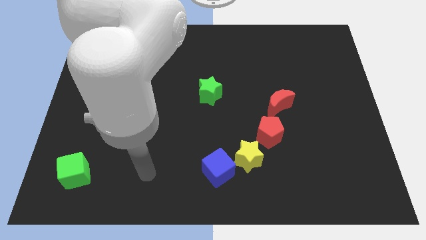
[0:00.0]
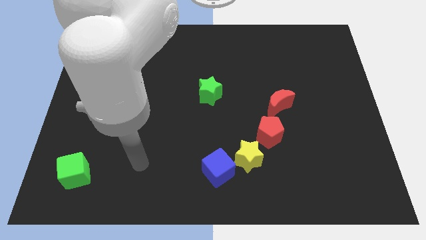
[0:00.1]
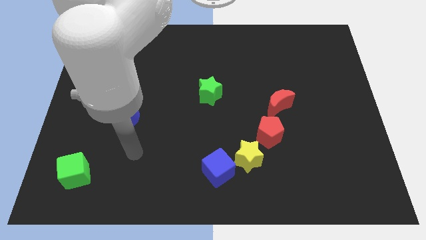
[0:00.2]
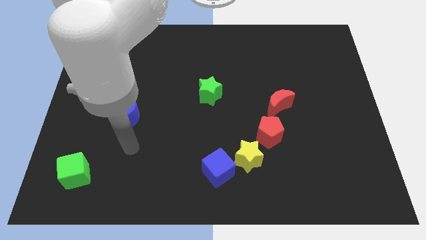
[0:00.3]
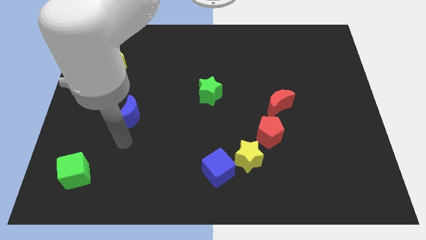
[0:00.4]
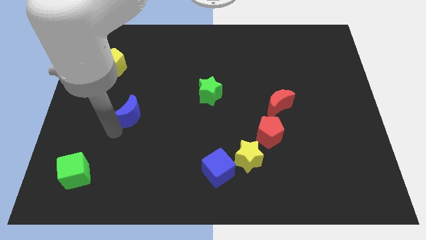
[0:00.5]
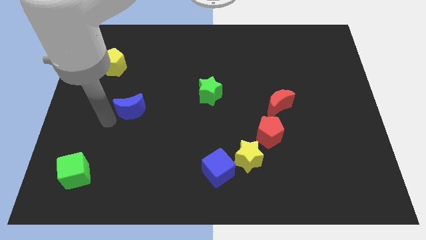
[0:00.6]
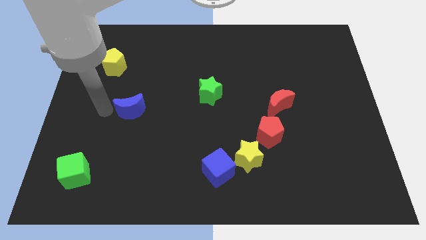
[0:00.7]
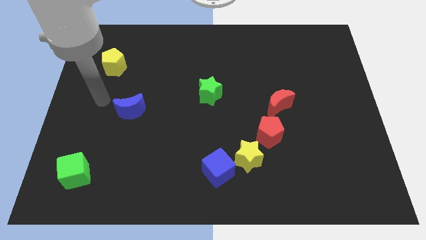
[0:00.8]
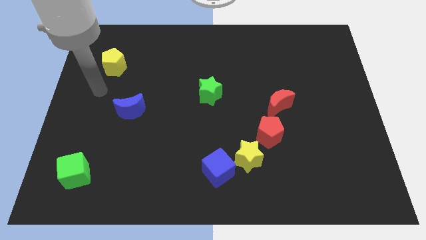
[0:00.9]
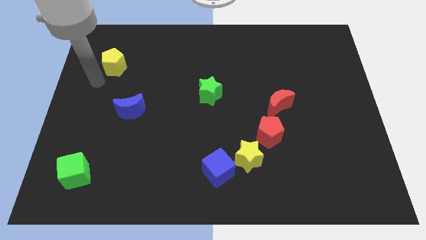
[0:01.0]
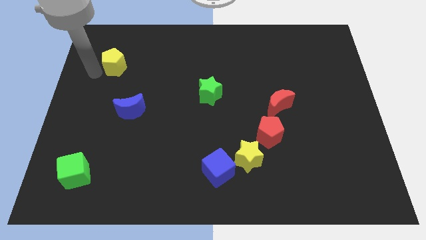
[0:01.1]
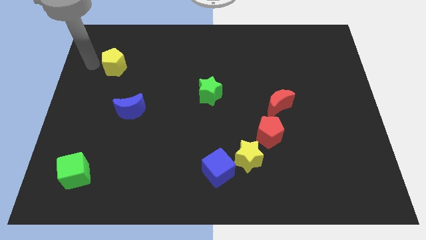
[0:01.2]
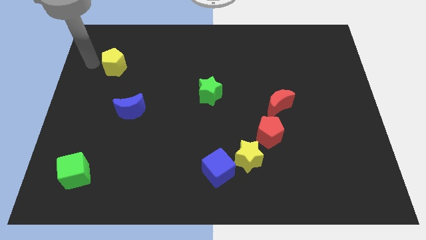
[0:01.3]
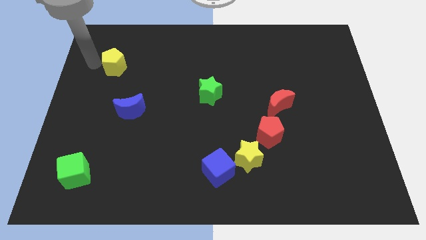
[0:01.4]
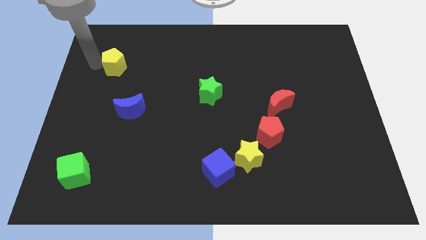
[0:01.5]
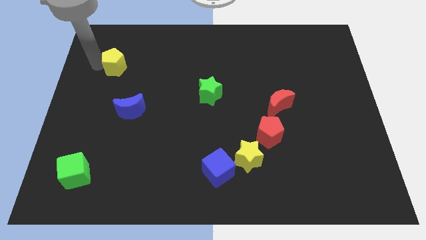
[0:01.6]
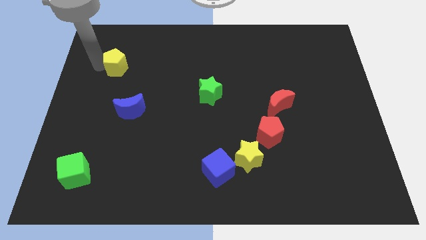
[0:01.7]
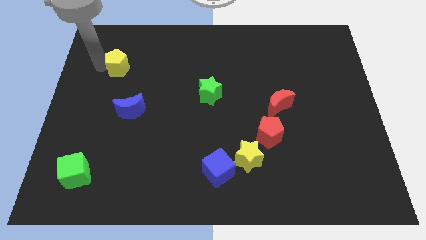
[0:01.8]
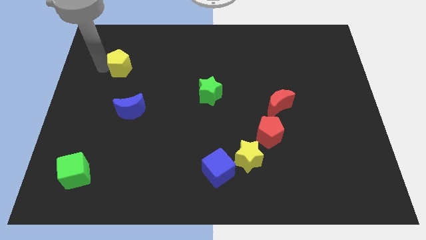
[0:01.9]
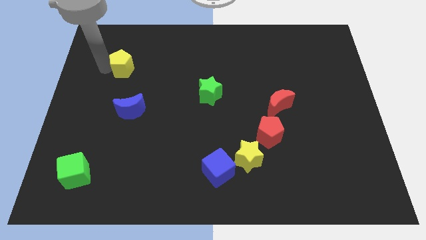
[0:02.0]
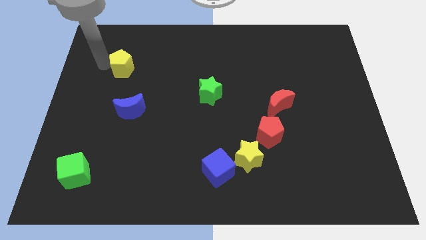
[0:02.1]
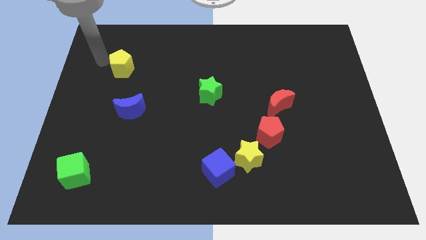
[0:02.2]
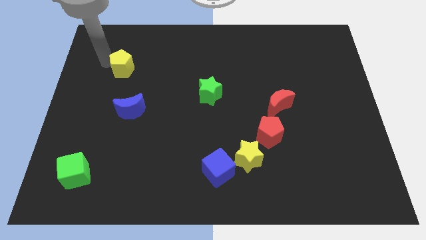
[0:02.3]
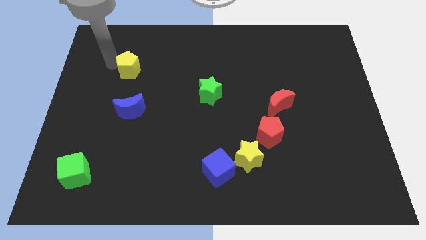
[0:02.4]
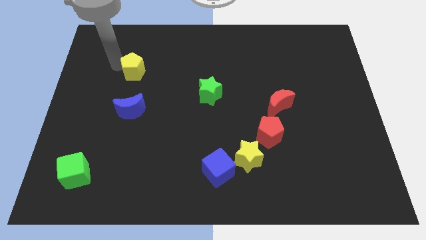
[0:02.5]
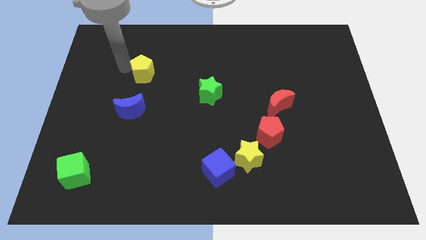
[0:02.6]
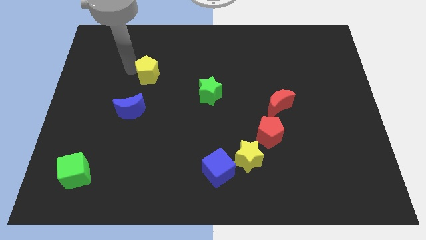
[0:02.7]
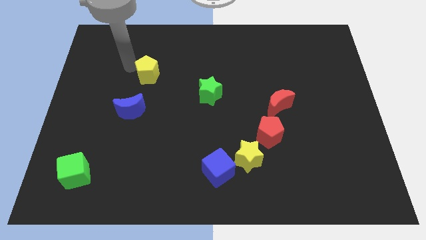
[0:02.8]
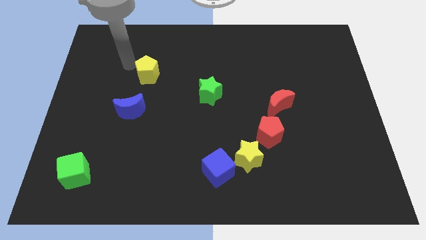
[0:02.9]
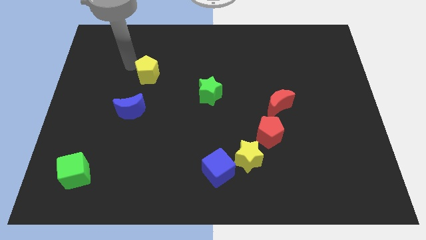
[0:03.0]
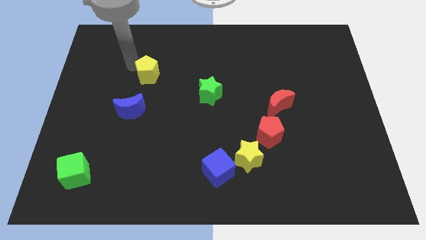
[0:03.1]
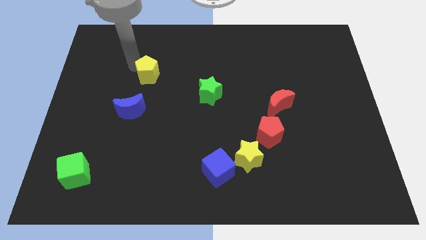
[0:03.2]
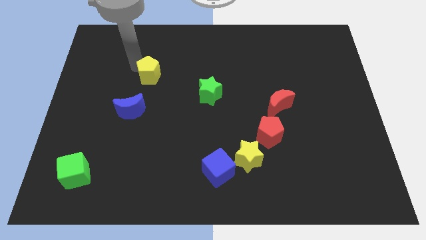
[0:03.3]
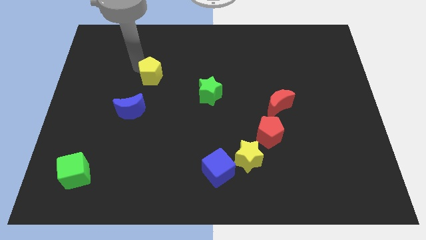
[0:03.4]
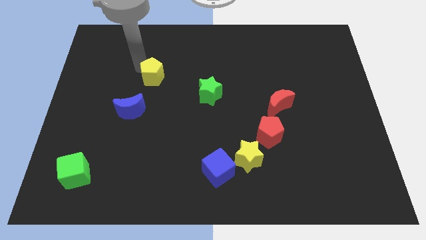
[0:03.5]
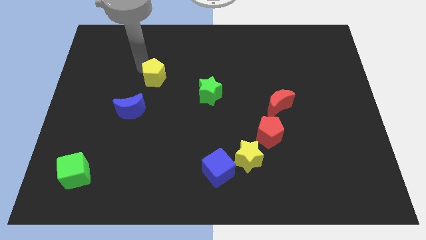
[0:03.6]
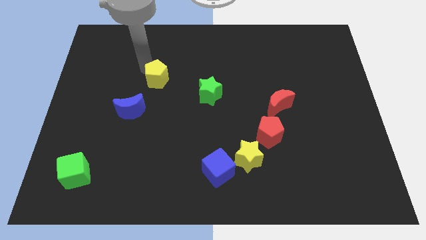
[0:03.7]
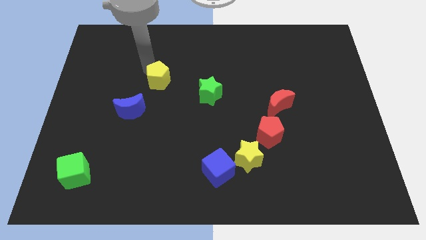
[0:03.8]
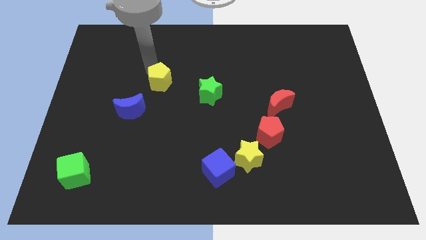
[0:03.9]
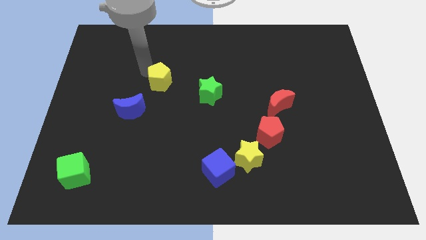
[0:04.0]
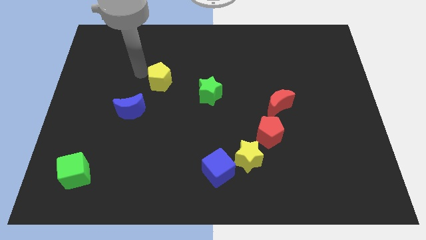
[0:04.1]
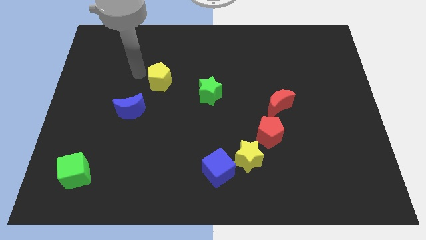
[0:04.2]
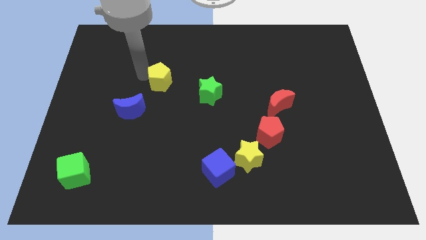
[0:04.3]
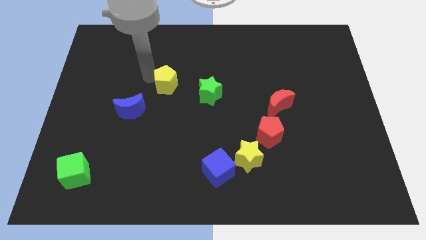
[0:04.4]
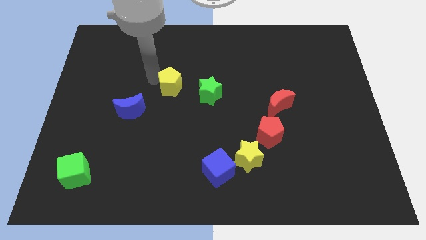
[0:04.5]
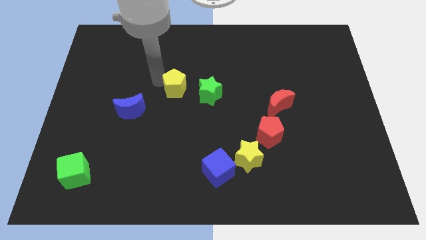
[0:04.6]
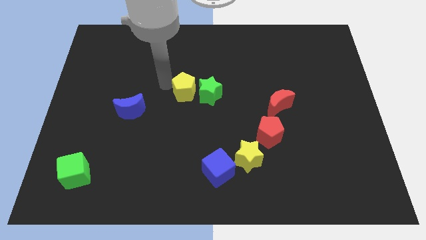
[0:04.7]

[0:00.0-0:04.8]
slide the yellow pentagon towards the green star

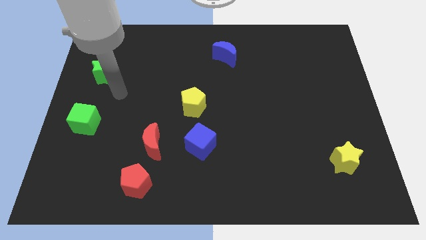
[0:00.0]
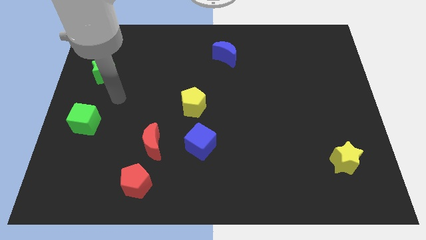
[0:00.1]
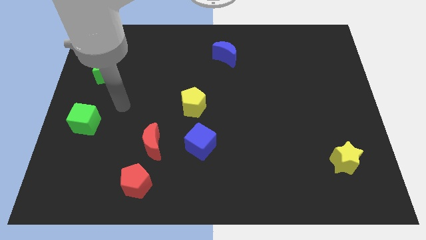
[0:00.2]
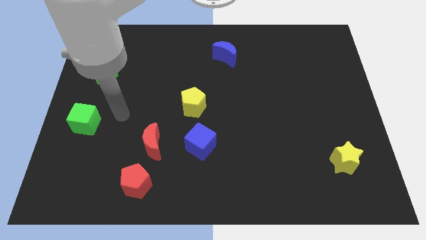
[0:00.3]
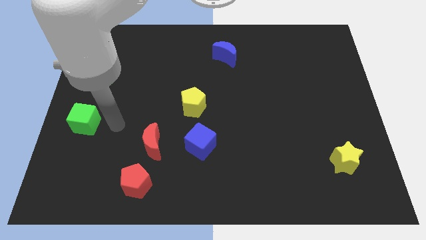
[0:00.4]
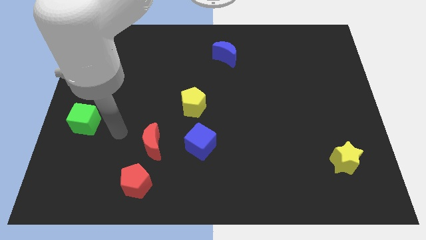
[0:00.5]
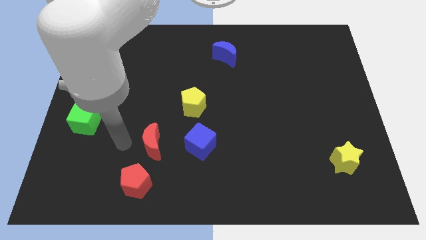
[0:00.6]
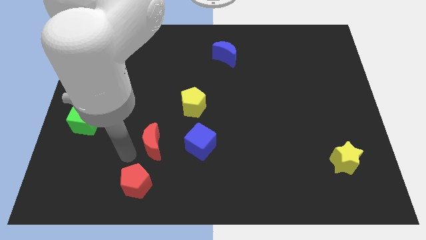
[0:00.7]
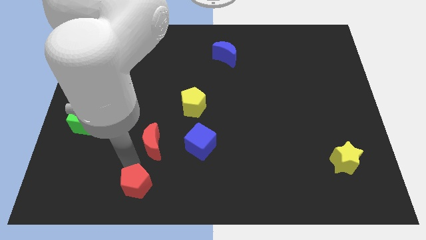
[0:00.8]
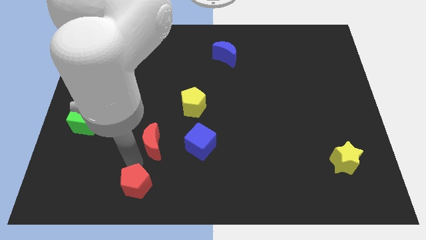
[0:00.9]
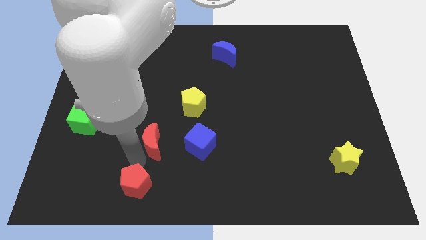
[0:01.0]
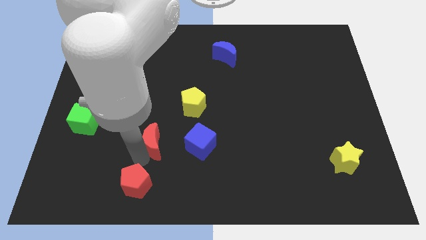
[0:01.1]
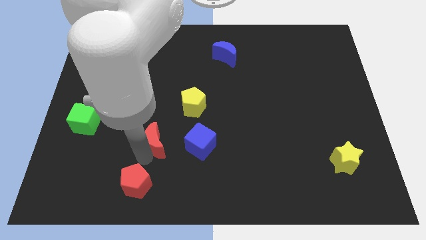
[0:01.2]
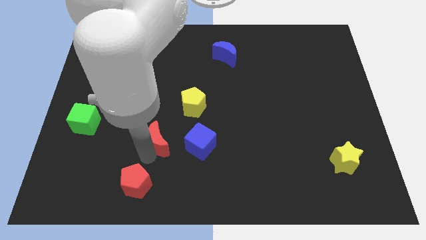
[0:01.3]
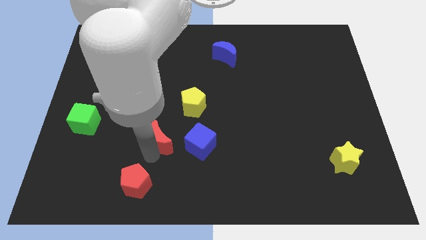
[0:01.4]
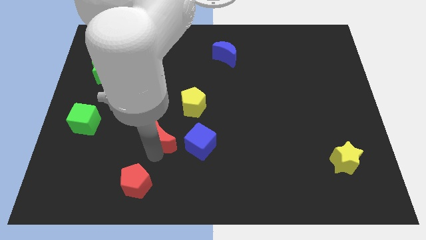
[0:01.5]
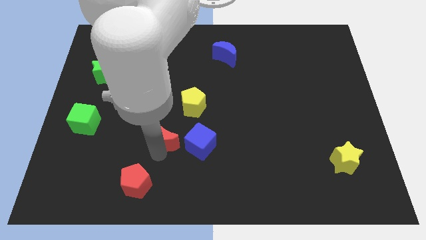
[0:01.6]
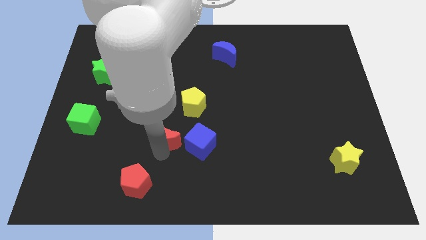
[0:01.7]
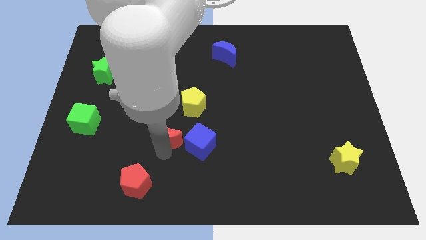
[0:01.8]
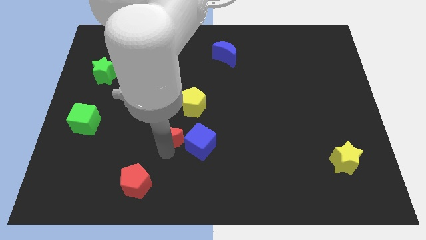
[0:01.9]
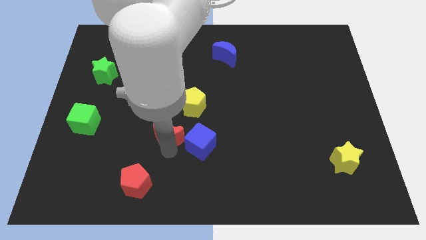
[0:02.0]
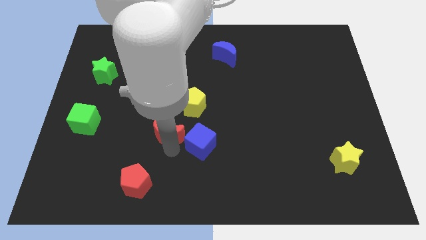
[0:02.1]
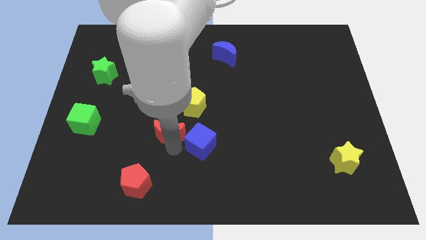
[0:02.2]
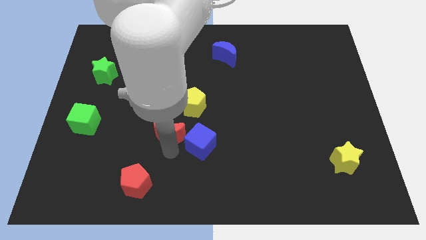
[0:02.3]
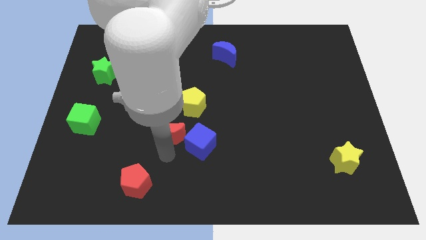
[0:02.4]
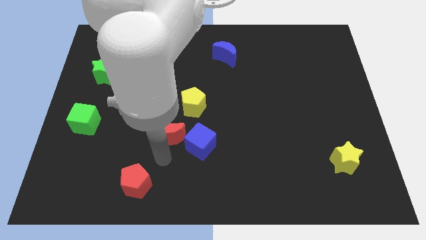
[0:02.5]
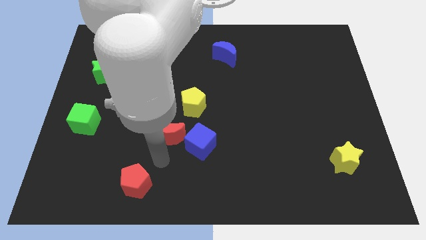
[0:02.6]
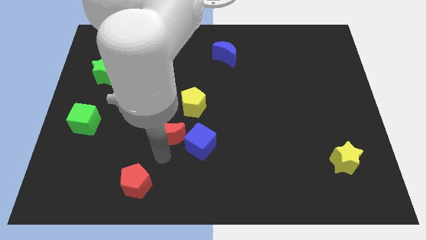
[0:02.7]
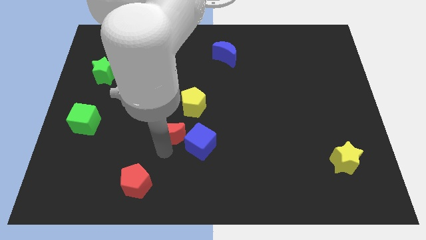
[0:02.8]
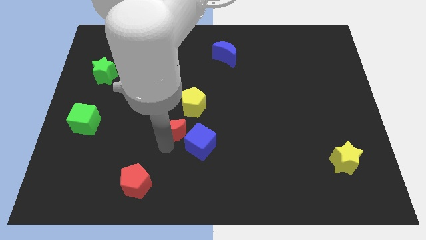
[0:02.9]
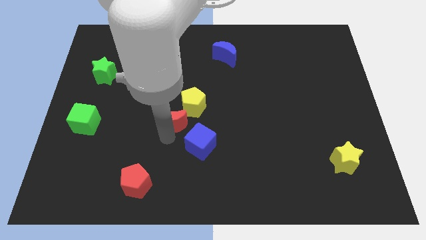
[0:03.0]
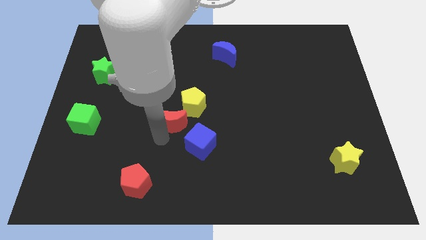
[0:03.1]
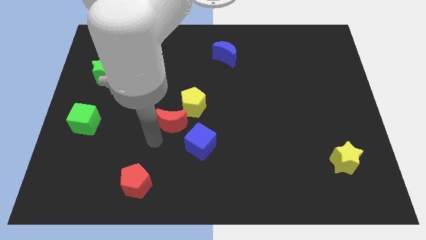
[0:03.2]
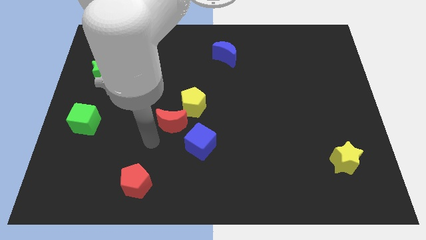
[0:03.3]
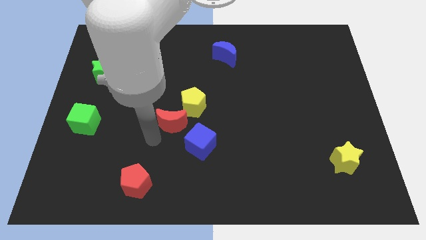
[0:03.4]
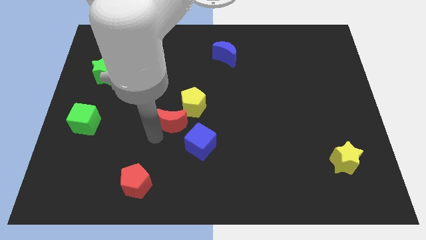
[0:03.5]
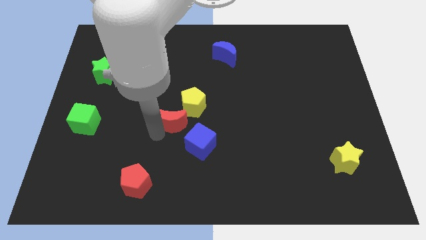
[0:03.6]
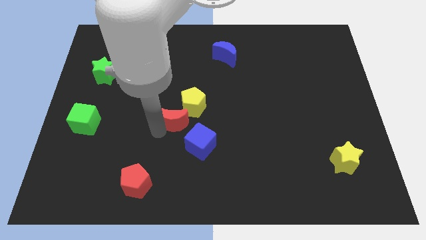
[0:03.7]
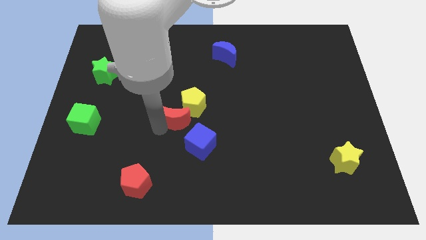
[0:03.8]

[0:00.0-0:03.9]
slide the red moon towards the yellow pentagon
